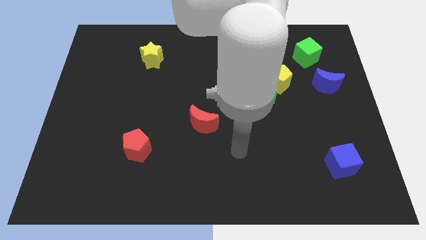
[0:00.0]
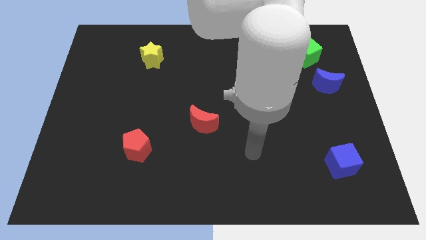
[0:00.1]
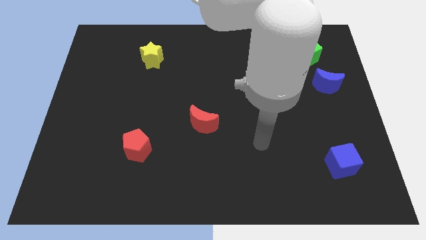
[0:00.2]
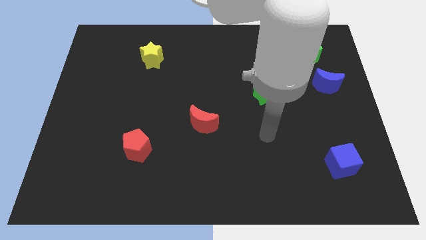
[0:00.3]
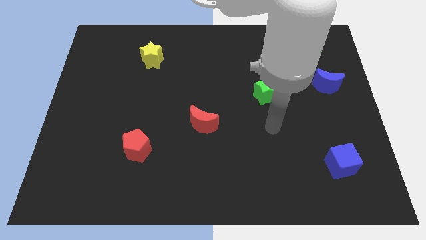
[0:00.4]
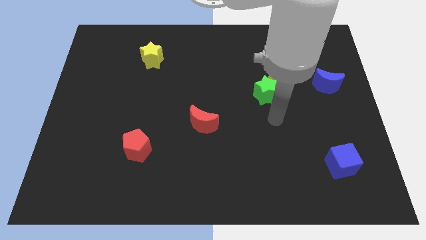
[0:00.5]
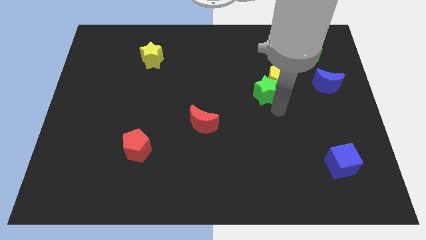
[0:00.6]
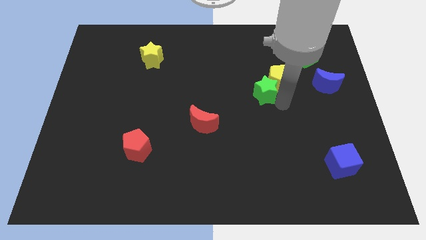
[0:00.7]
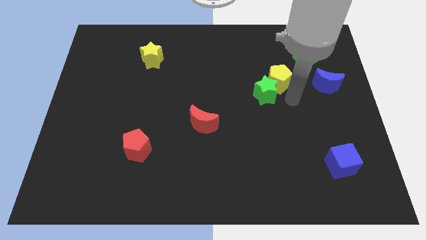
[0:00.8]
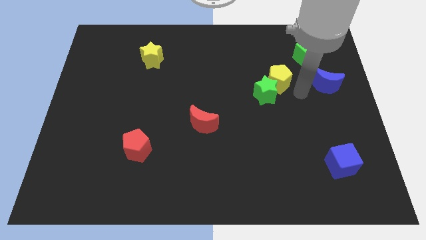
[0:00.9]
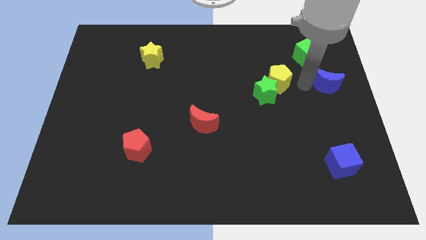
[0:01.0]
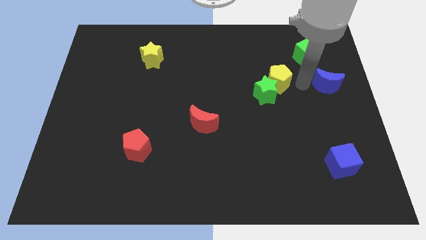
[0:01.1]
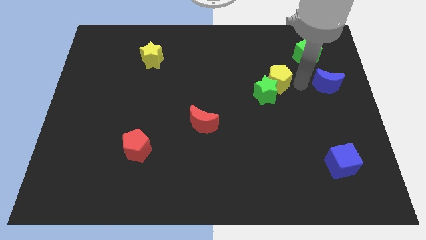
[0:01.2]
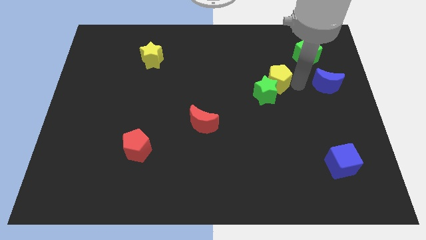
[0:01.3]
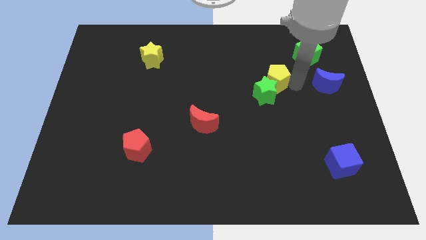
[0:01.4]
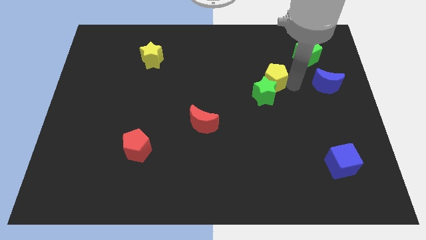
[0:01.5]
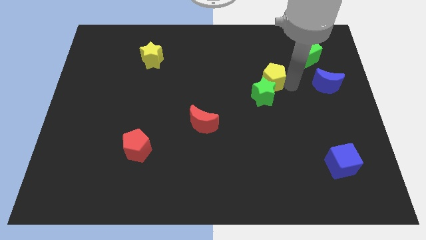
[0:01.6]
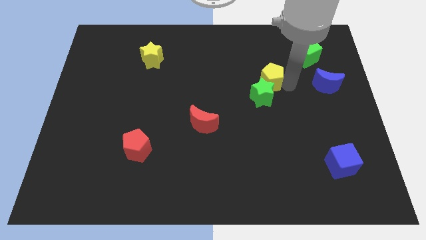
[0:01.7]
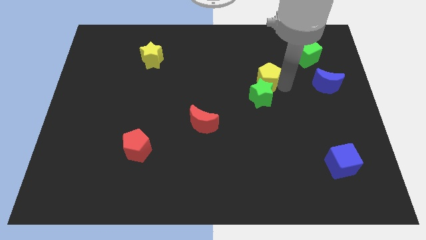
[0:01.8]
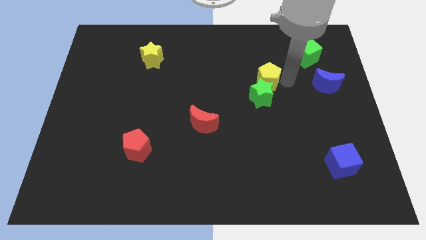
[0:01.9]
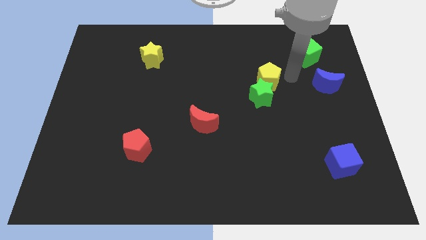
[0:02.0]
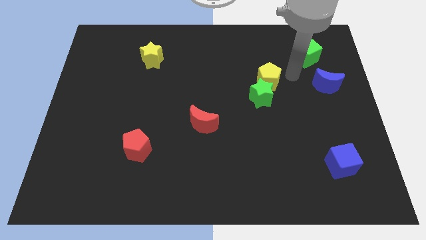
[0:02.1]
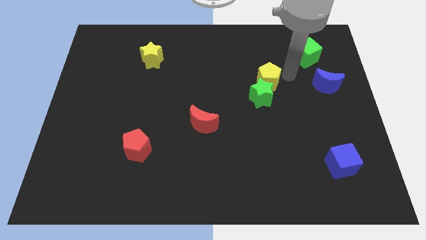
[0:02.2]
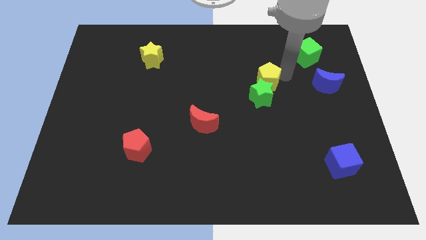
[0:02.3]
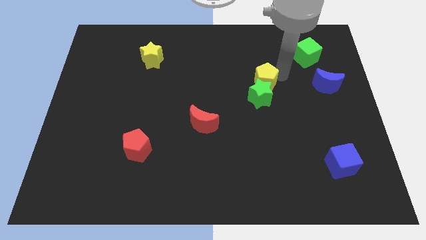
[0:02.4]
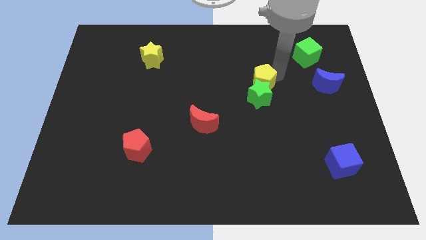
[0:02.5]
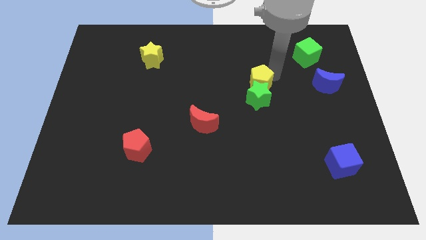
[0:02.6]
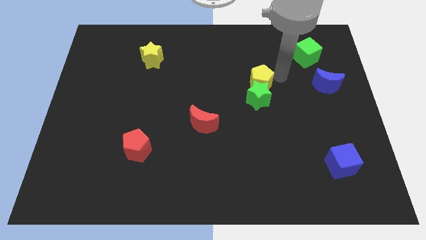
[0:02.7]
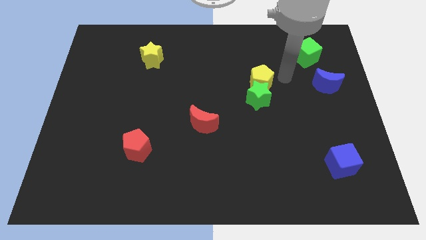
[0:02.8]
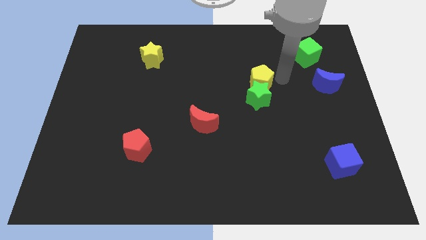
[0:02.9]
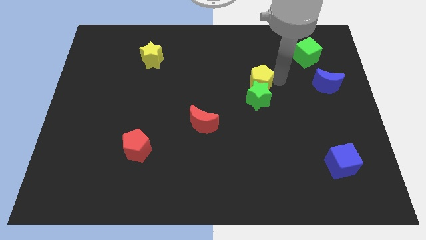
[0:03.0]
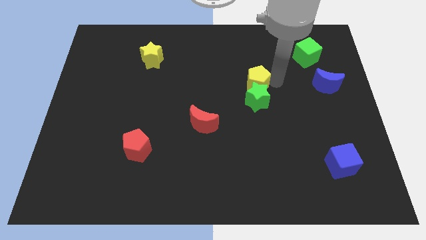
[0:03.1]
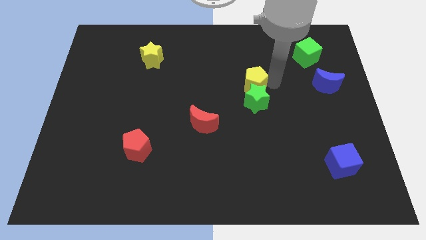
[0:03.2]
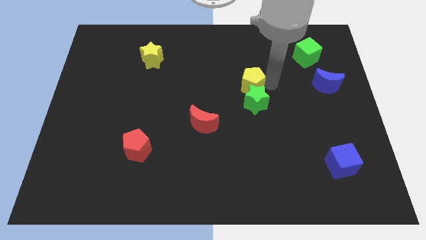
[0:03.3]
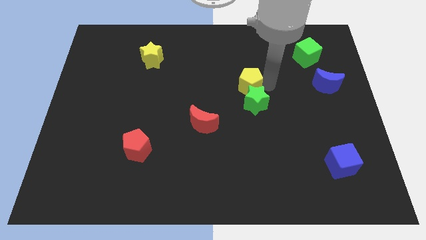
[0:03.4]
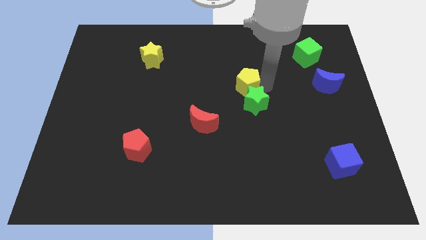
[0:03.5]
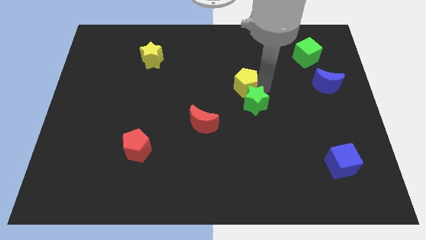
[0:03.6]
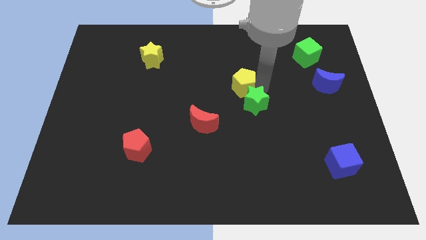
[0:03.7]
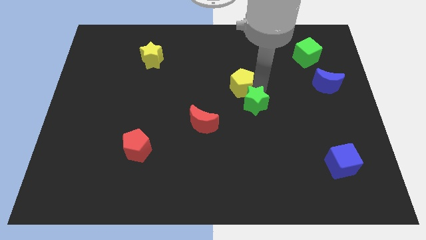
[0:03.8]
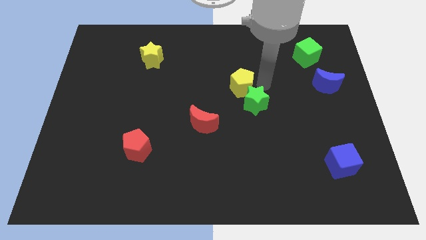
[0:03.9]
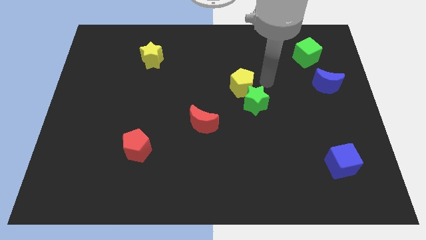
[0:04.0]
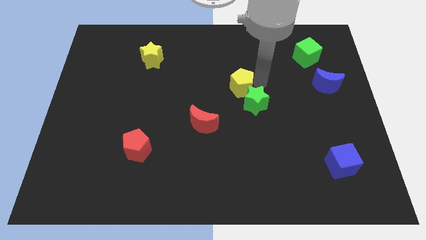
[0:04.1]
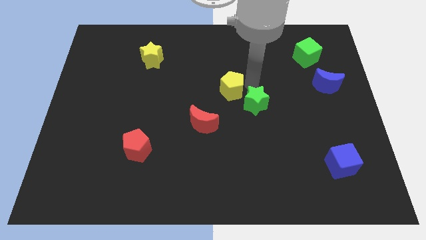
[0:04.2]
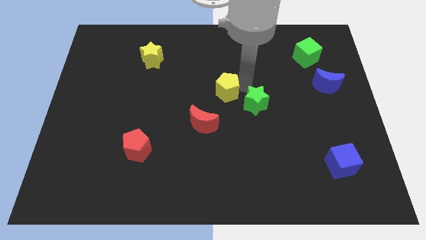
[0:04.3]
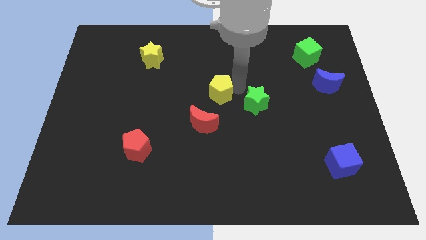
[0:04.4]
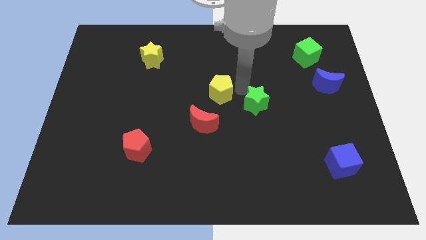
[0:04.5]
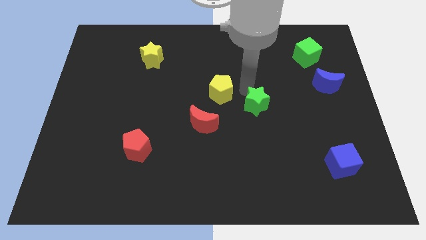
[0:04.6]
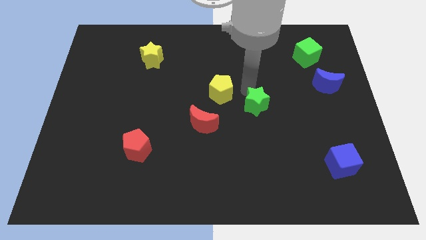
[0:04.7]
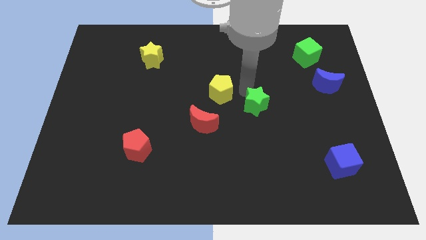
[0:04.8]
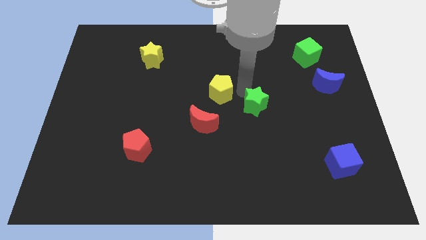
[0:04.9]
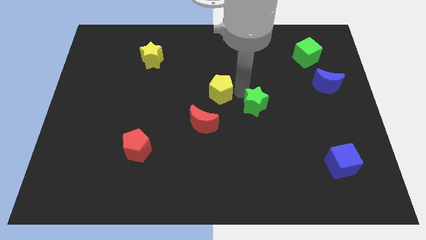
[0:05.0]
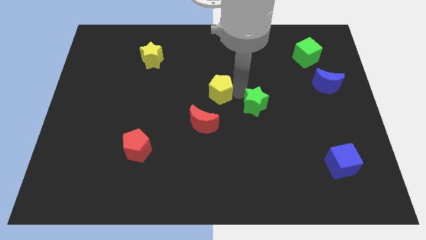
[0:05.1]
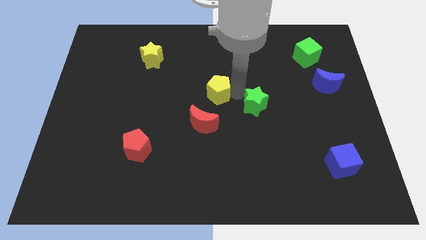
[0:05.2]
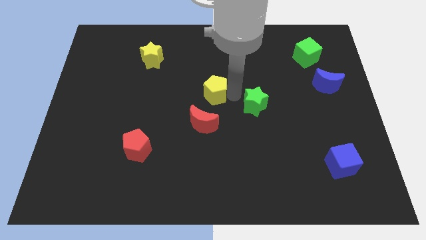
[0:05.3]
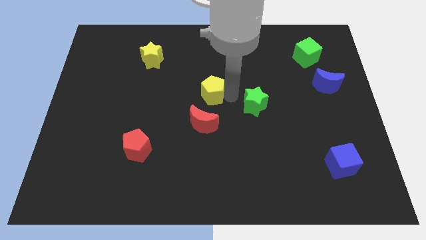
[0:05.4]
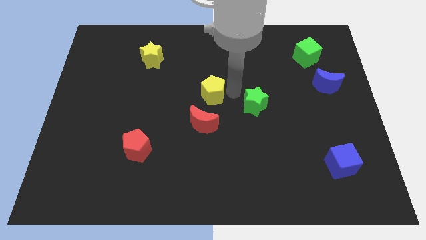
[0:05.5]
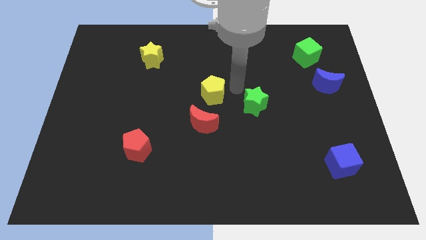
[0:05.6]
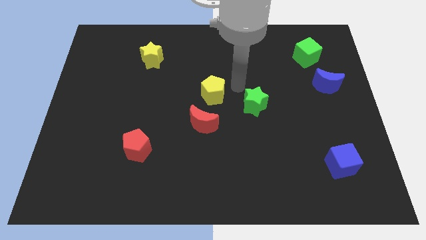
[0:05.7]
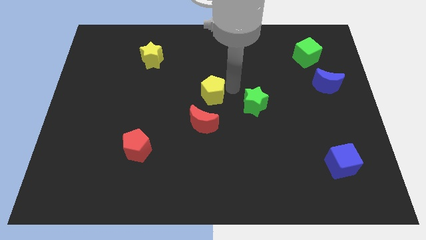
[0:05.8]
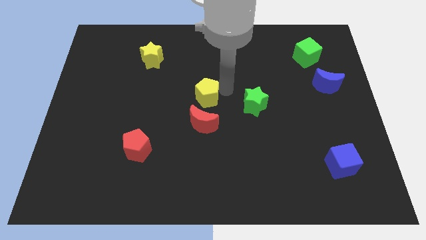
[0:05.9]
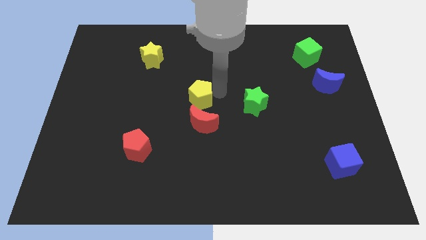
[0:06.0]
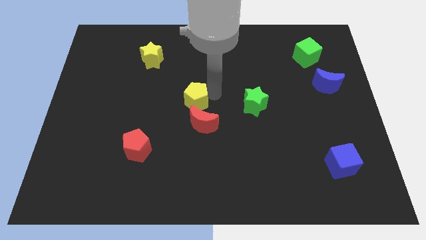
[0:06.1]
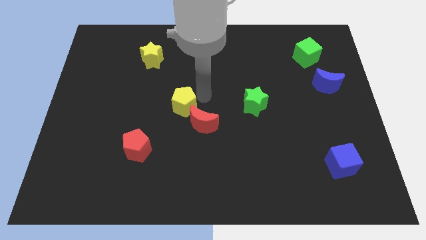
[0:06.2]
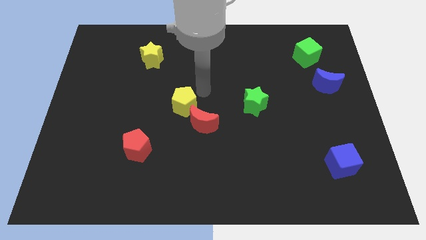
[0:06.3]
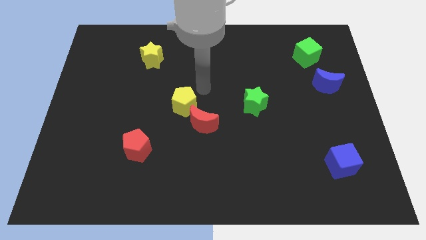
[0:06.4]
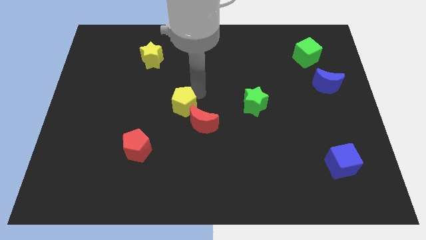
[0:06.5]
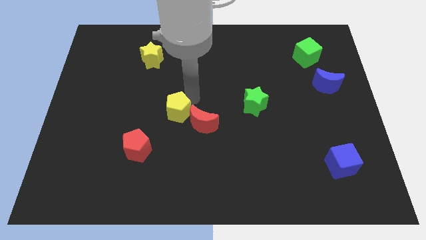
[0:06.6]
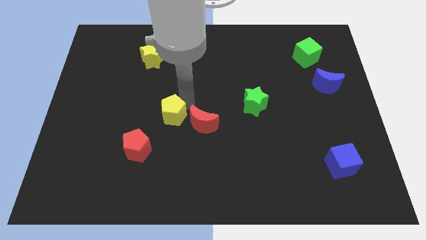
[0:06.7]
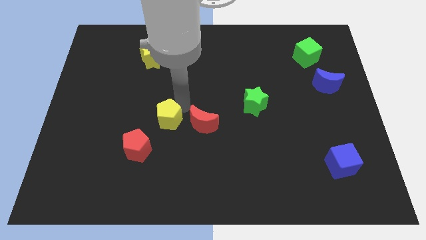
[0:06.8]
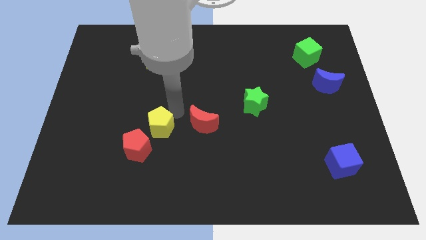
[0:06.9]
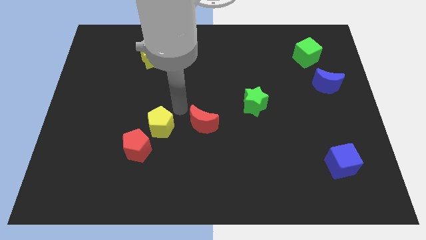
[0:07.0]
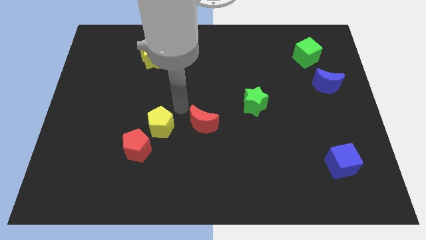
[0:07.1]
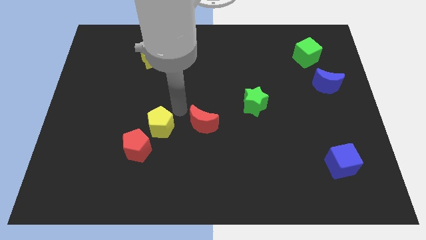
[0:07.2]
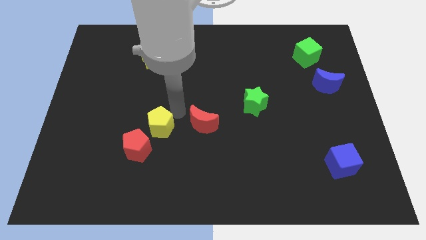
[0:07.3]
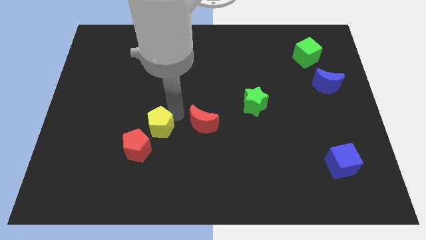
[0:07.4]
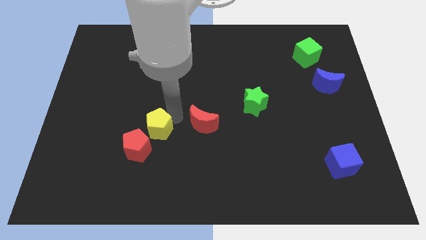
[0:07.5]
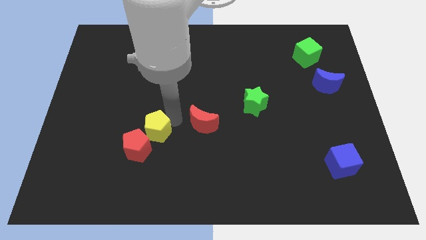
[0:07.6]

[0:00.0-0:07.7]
put the yellow pentagon towards the red pentagon
